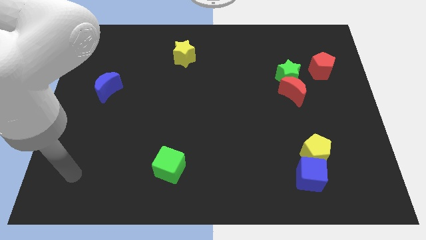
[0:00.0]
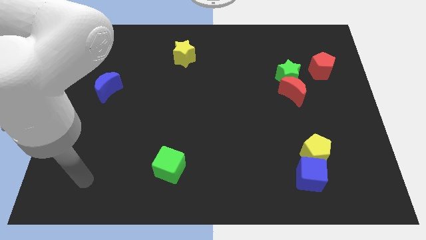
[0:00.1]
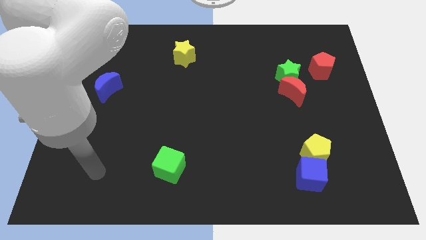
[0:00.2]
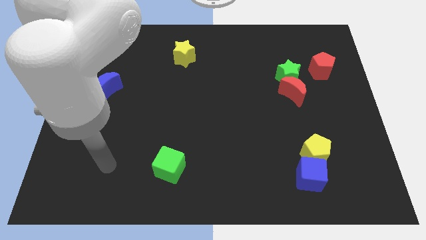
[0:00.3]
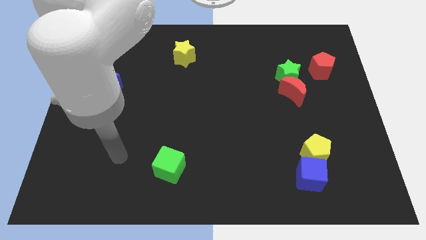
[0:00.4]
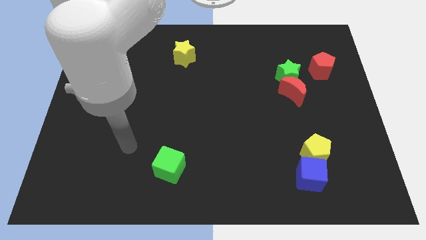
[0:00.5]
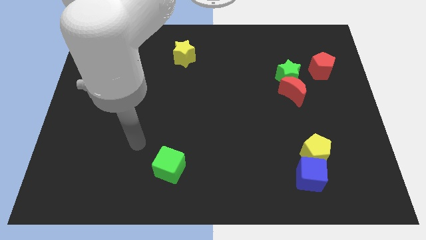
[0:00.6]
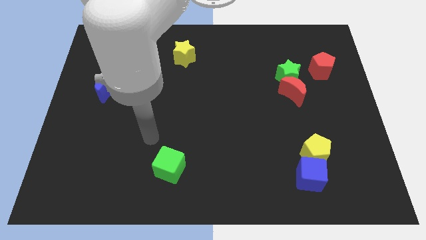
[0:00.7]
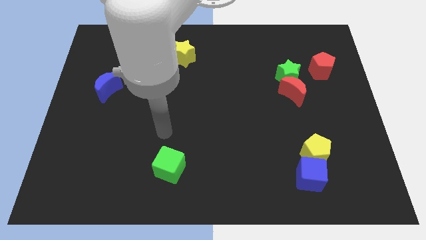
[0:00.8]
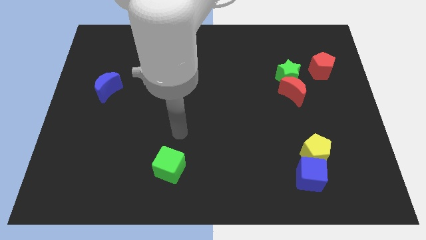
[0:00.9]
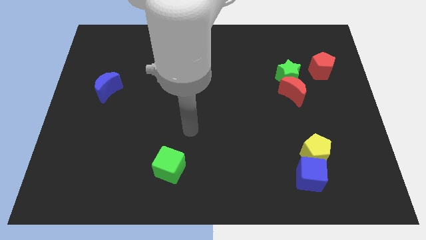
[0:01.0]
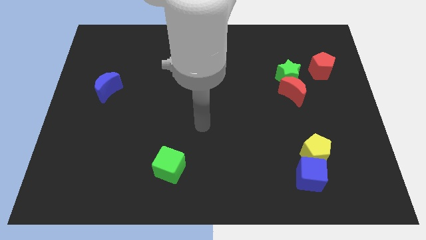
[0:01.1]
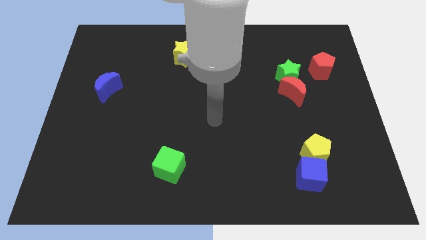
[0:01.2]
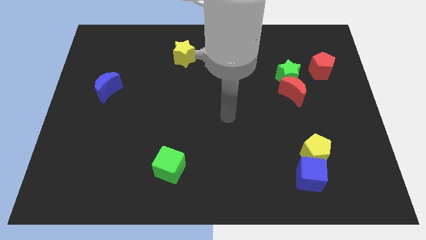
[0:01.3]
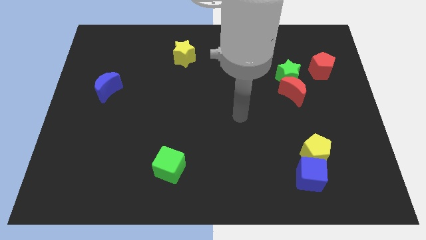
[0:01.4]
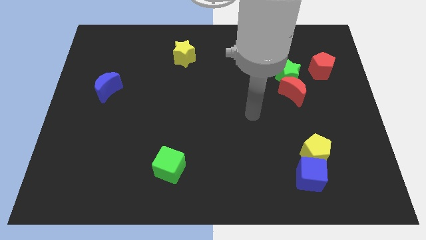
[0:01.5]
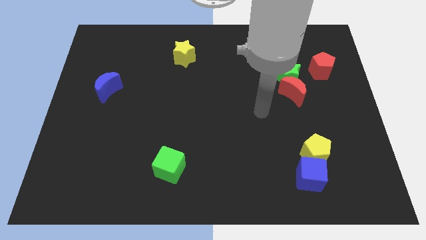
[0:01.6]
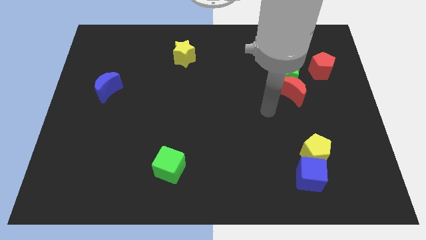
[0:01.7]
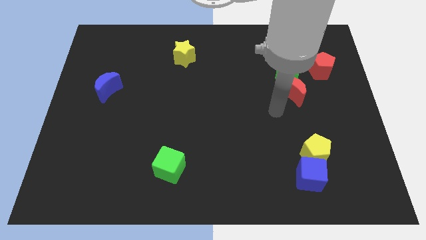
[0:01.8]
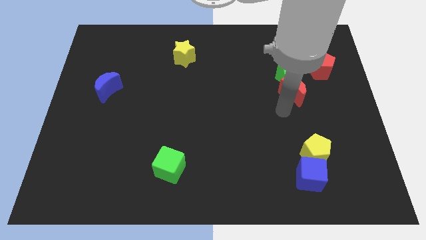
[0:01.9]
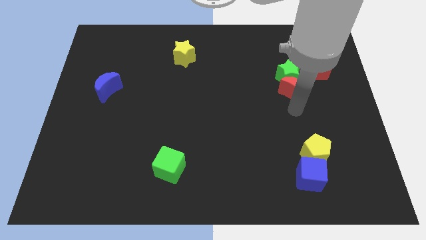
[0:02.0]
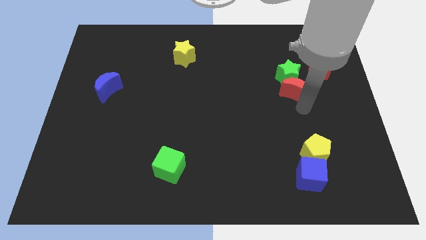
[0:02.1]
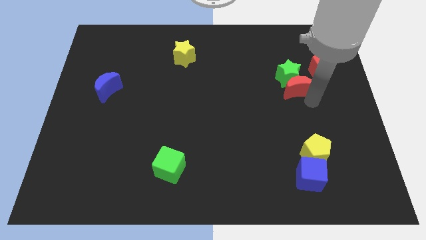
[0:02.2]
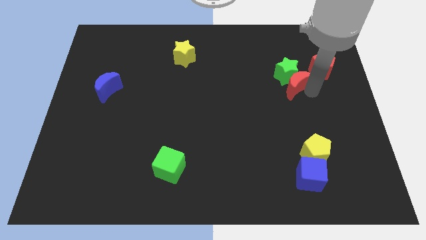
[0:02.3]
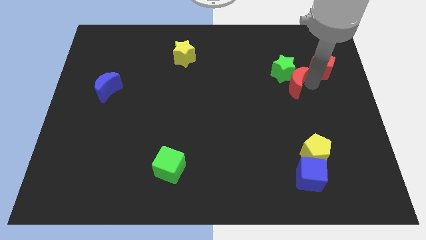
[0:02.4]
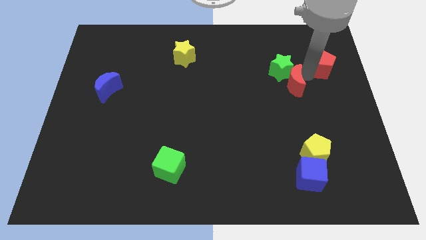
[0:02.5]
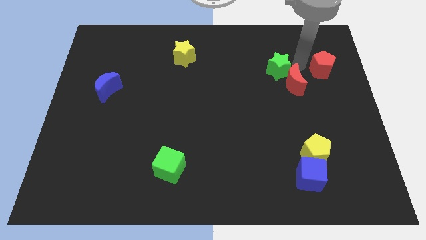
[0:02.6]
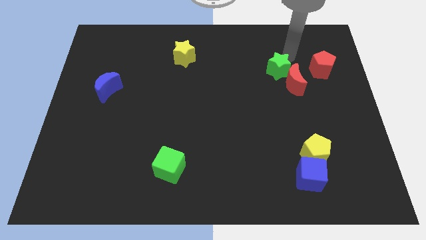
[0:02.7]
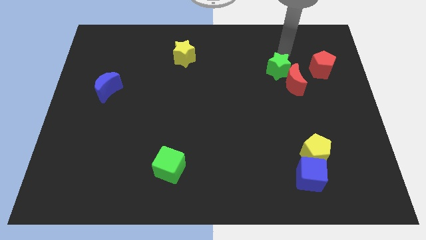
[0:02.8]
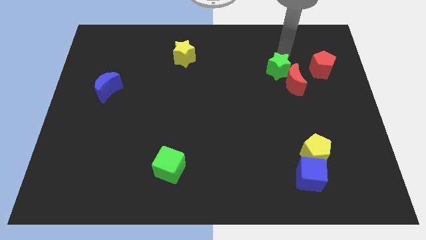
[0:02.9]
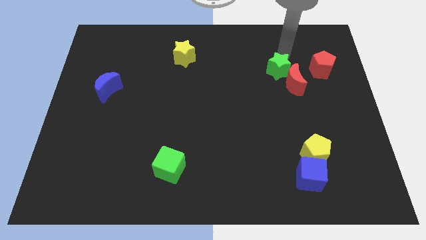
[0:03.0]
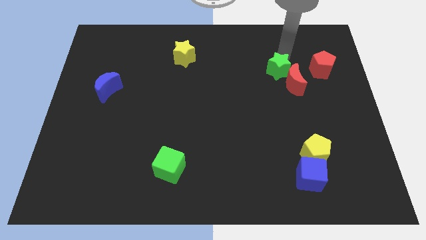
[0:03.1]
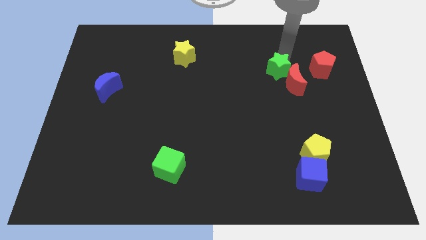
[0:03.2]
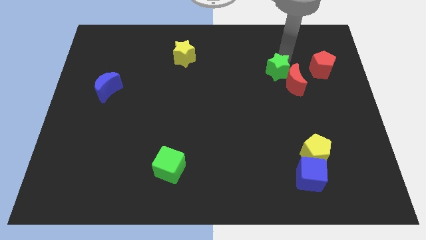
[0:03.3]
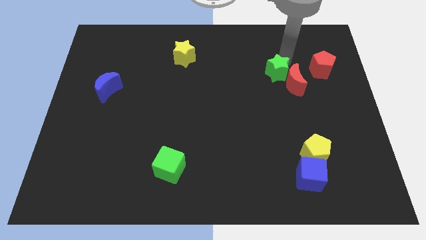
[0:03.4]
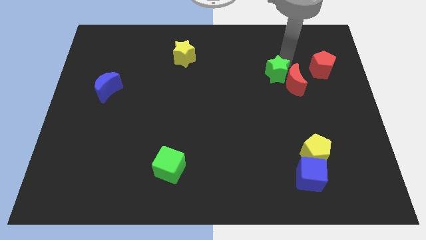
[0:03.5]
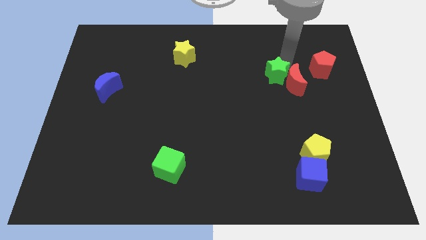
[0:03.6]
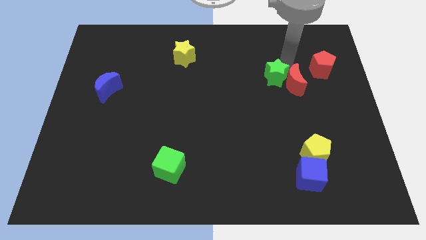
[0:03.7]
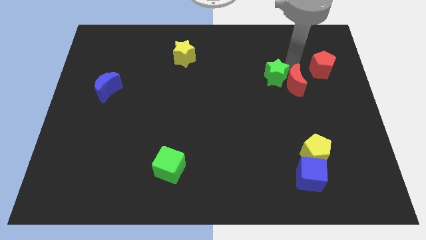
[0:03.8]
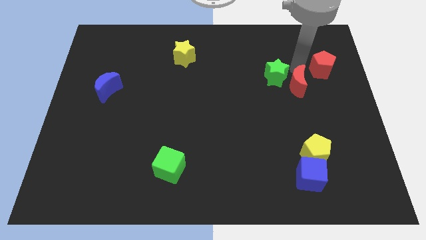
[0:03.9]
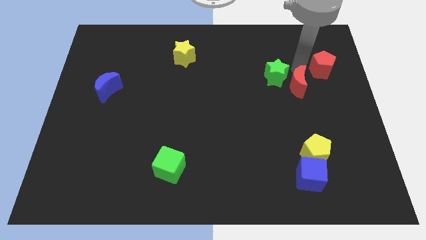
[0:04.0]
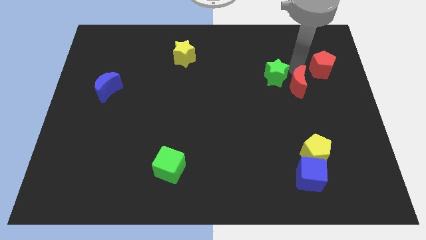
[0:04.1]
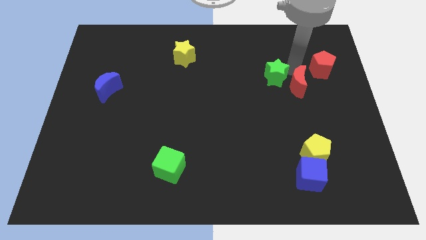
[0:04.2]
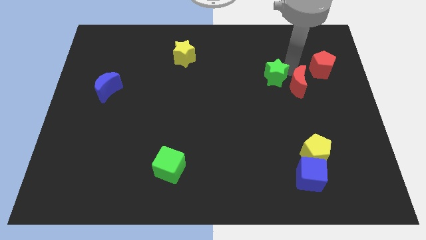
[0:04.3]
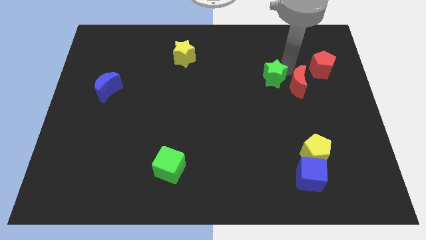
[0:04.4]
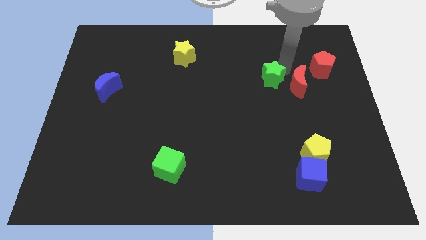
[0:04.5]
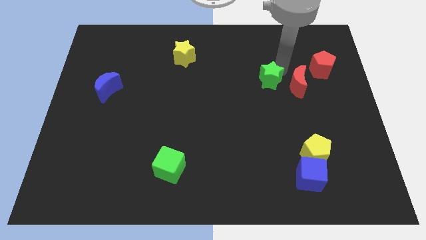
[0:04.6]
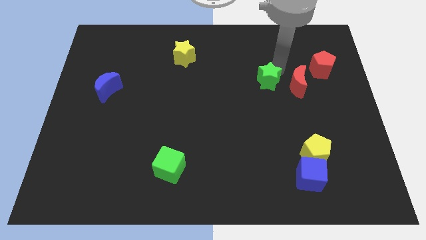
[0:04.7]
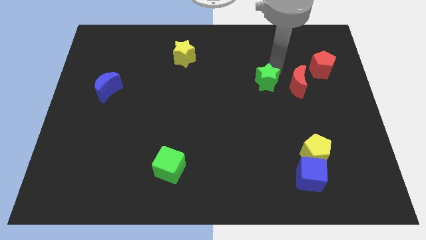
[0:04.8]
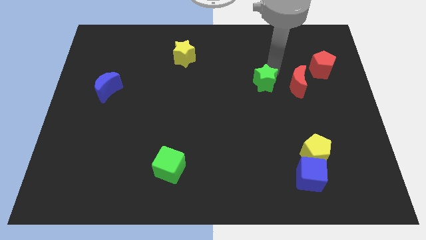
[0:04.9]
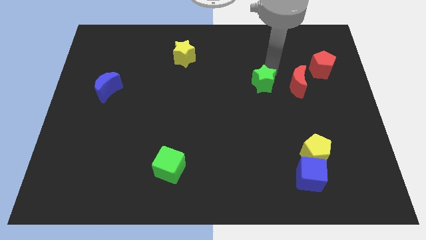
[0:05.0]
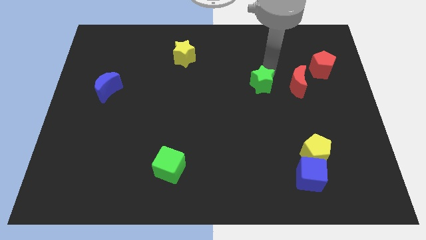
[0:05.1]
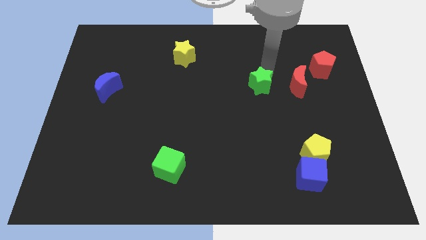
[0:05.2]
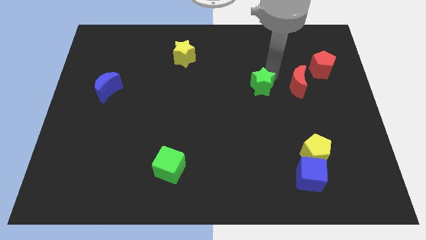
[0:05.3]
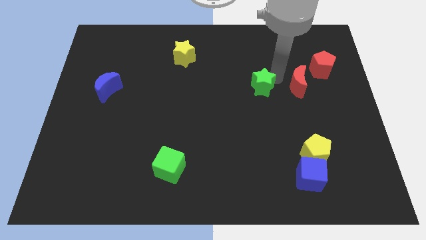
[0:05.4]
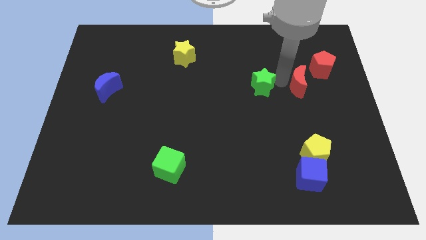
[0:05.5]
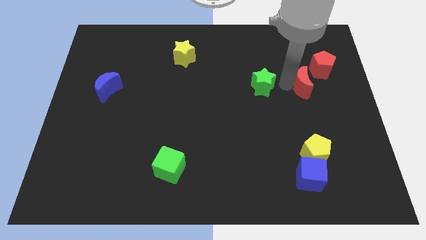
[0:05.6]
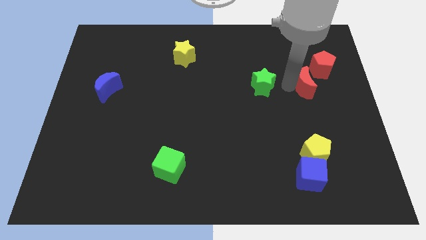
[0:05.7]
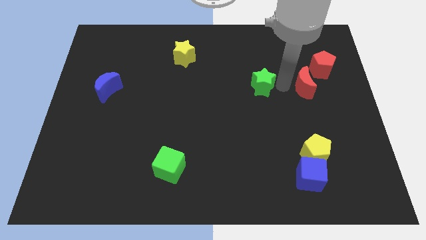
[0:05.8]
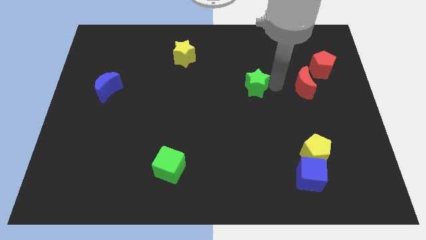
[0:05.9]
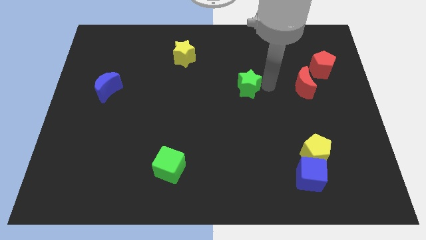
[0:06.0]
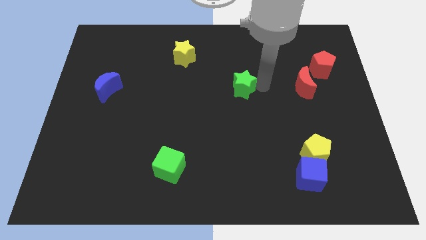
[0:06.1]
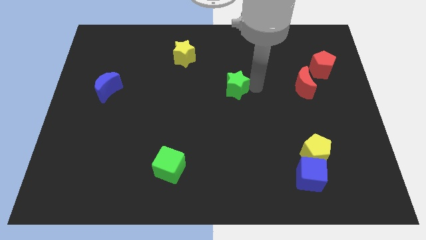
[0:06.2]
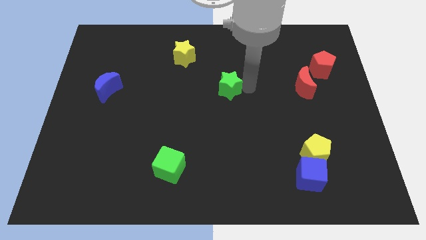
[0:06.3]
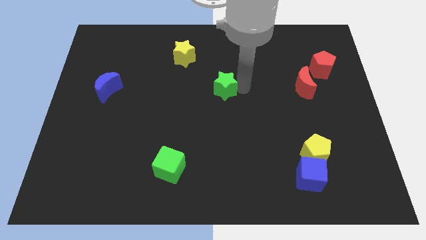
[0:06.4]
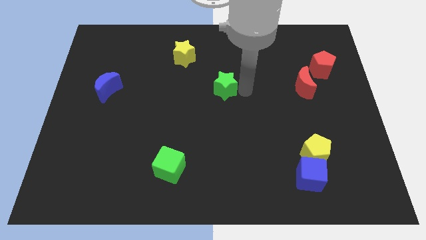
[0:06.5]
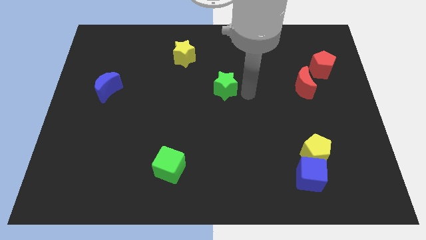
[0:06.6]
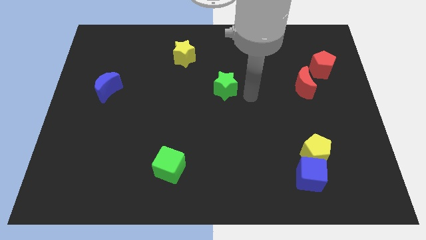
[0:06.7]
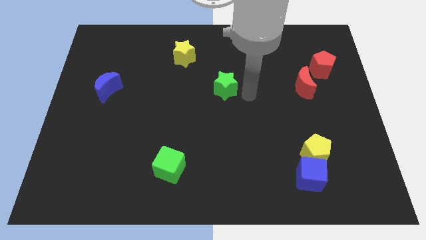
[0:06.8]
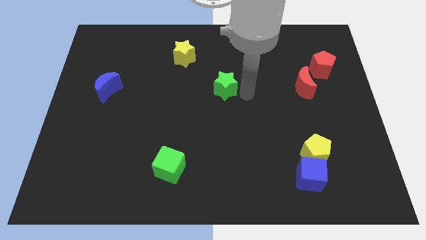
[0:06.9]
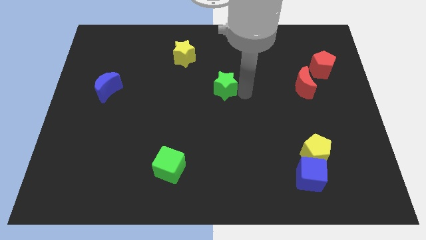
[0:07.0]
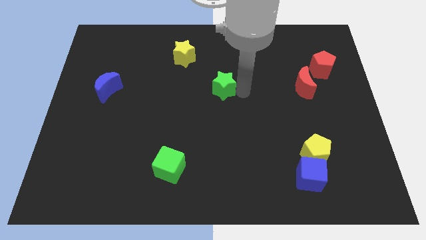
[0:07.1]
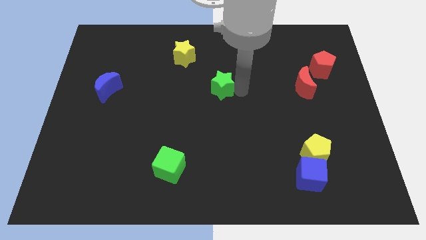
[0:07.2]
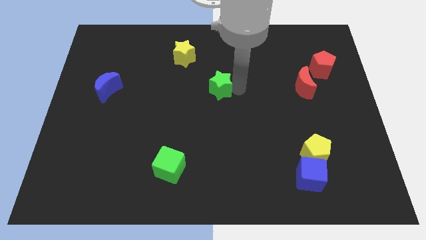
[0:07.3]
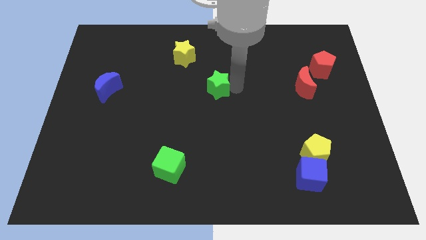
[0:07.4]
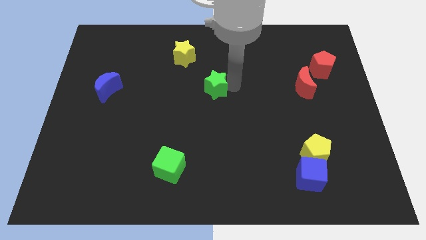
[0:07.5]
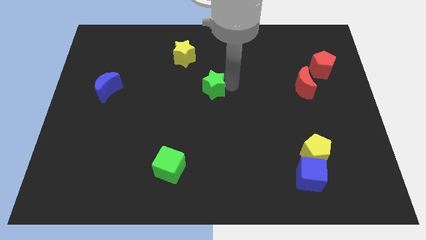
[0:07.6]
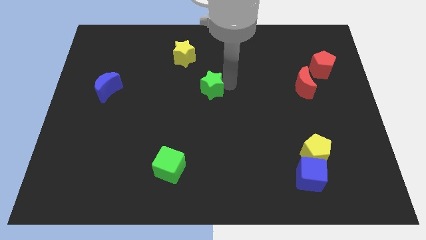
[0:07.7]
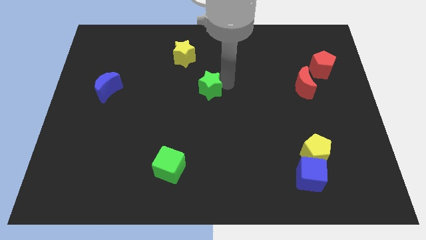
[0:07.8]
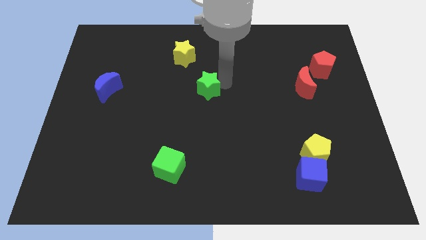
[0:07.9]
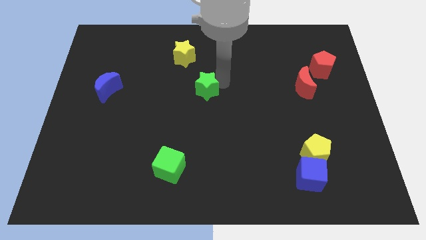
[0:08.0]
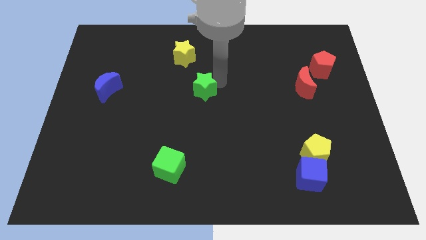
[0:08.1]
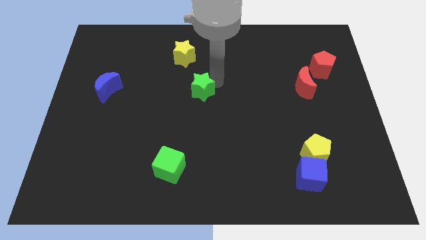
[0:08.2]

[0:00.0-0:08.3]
move the green star to the bottom of the yellow star
